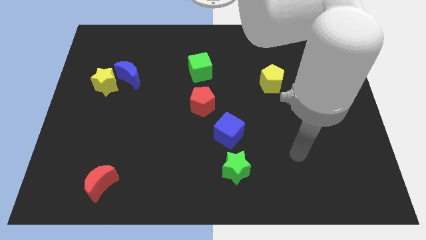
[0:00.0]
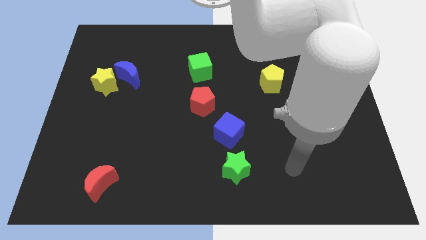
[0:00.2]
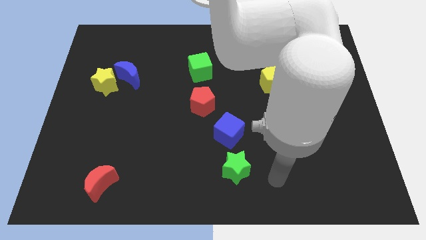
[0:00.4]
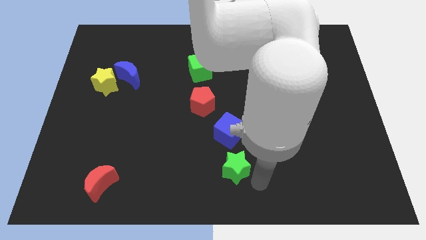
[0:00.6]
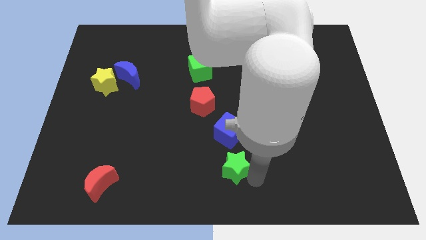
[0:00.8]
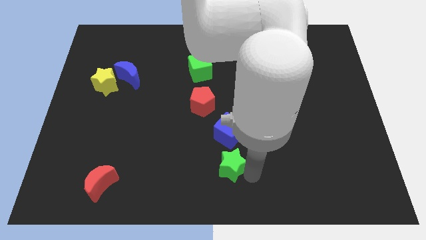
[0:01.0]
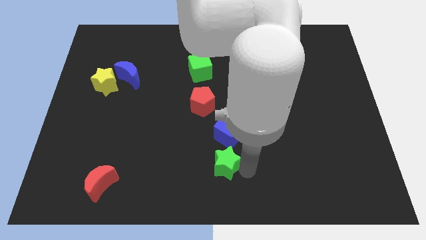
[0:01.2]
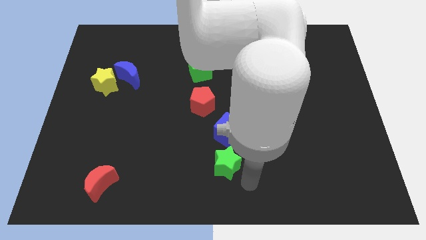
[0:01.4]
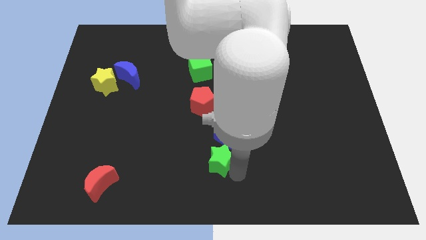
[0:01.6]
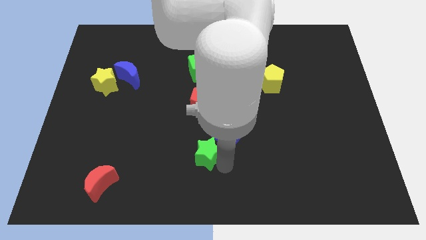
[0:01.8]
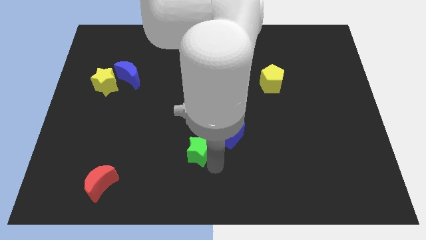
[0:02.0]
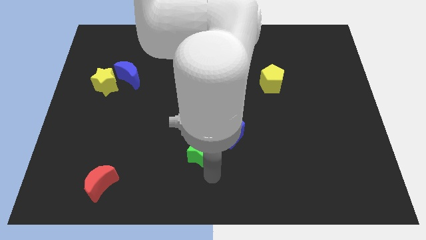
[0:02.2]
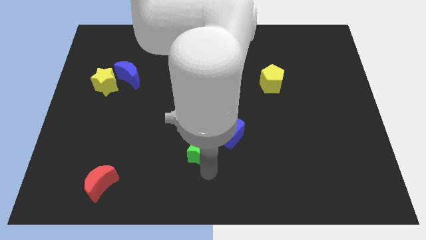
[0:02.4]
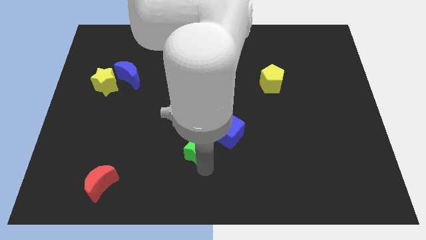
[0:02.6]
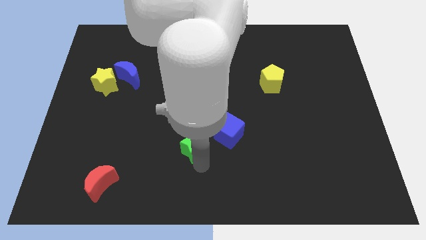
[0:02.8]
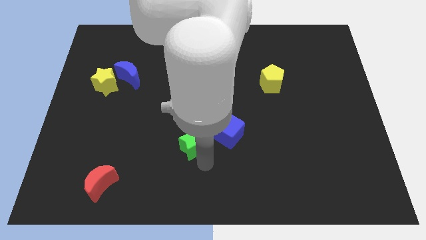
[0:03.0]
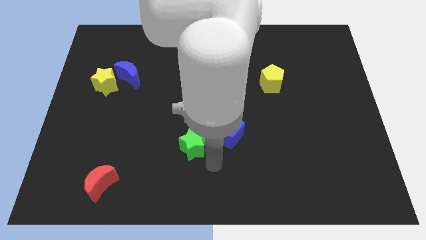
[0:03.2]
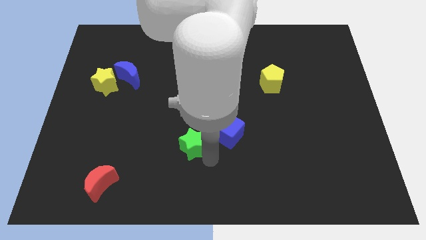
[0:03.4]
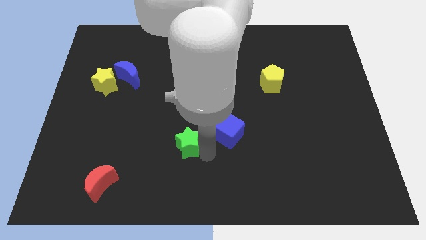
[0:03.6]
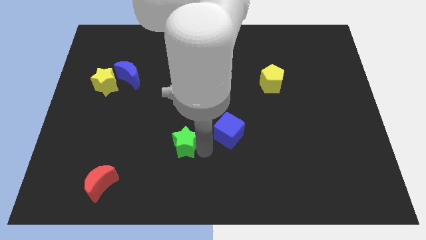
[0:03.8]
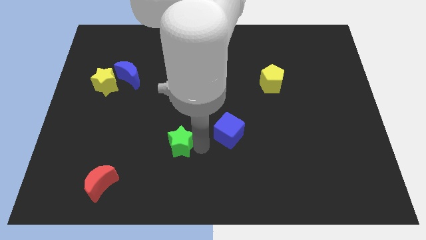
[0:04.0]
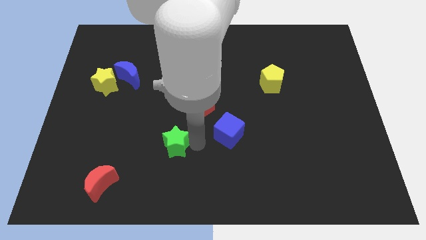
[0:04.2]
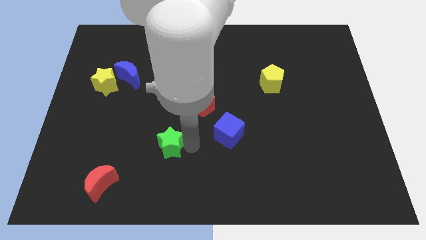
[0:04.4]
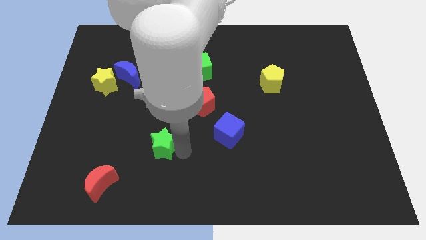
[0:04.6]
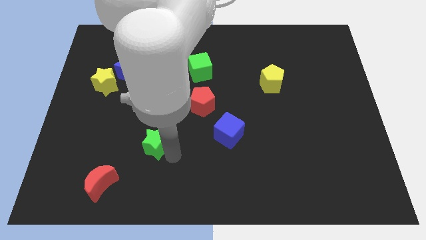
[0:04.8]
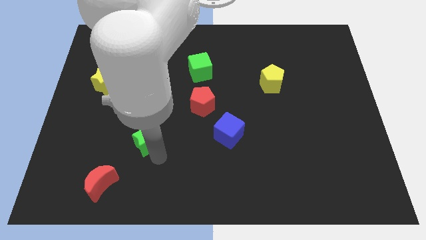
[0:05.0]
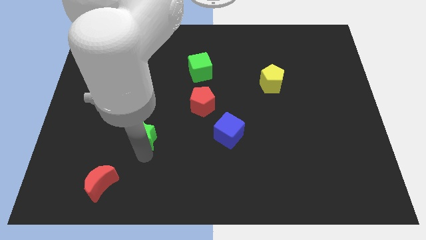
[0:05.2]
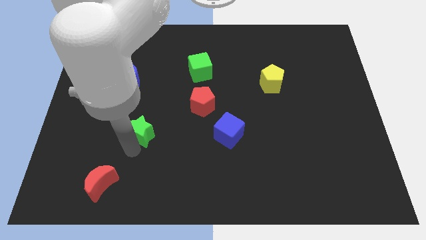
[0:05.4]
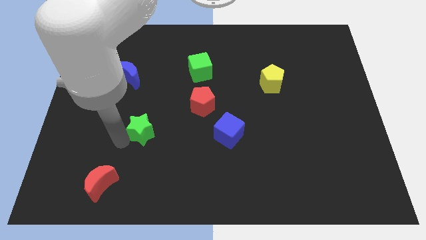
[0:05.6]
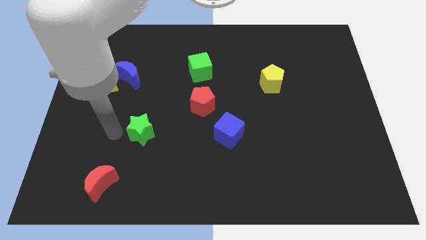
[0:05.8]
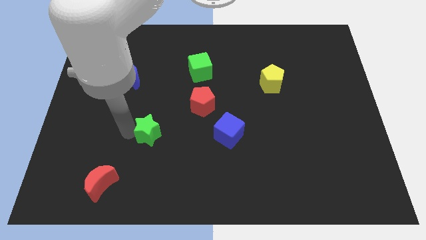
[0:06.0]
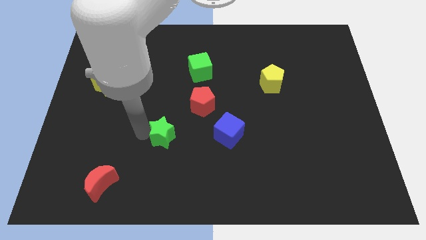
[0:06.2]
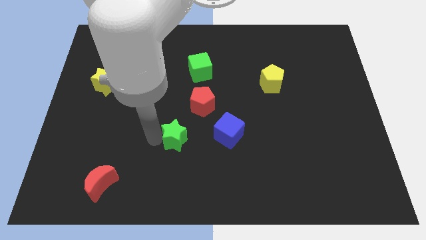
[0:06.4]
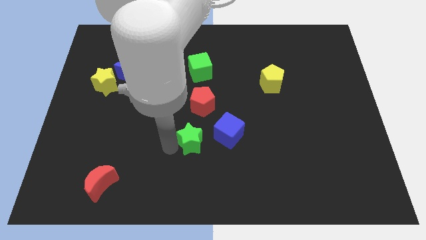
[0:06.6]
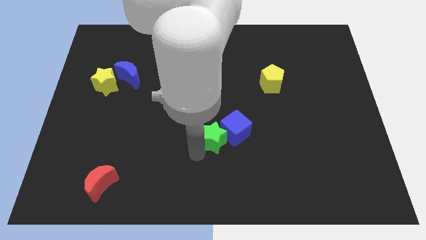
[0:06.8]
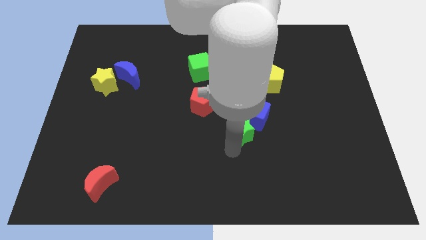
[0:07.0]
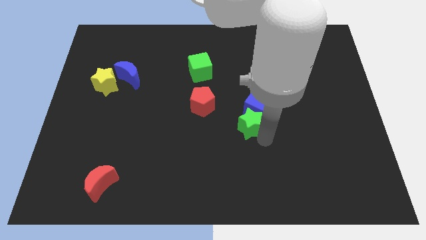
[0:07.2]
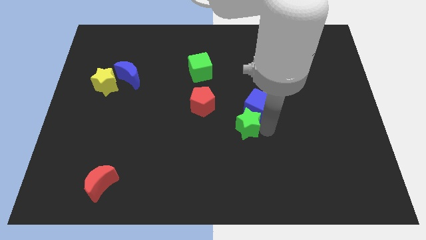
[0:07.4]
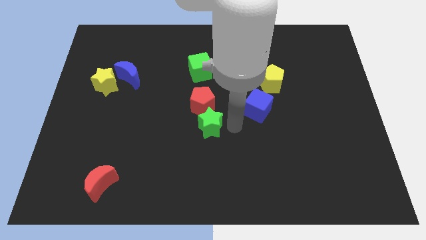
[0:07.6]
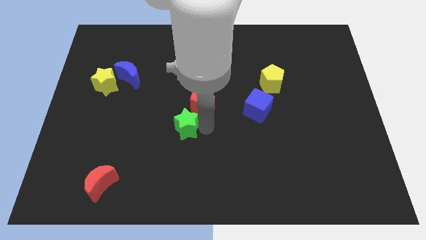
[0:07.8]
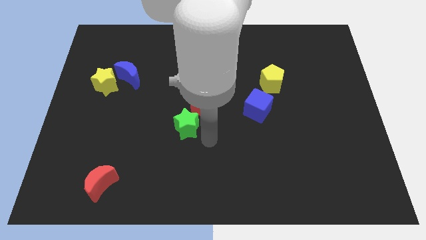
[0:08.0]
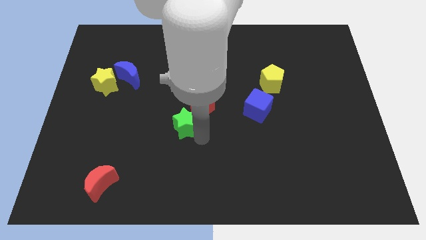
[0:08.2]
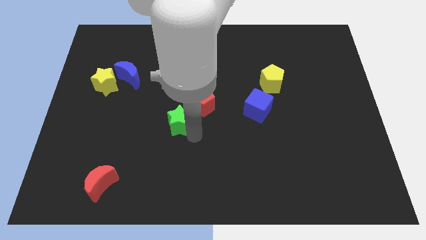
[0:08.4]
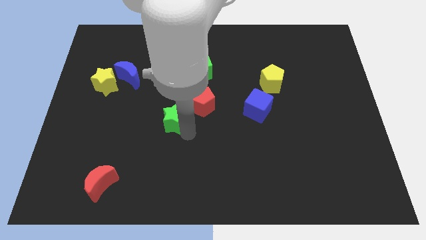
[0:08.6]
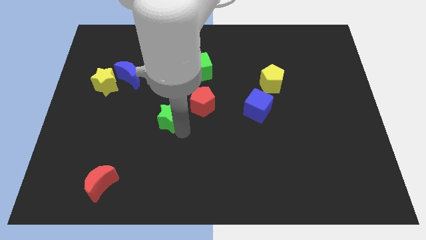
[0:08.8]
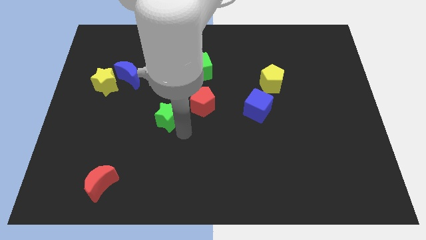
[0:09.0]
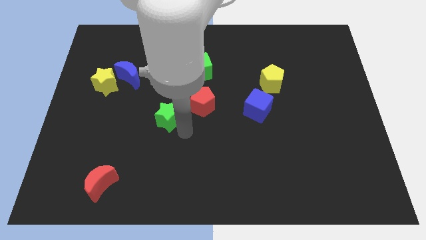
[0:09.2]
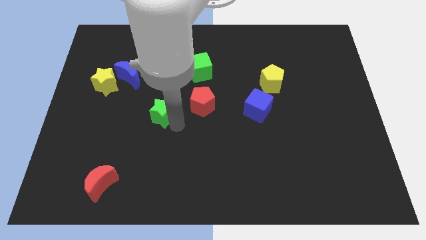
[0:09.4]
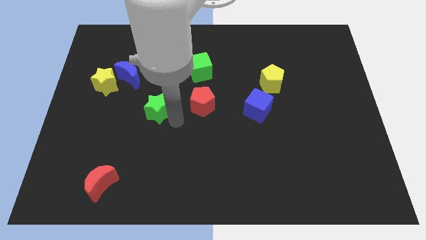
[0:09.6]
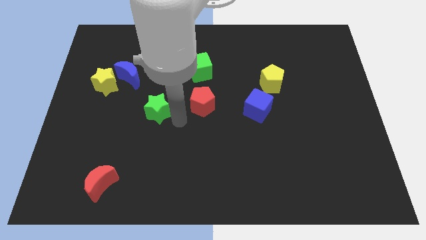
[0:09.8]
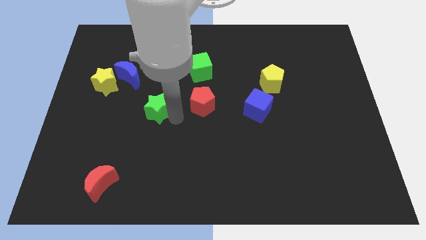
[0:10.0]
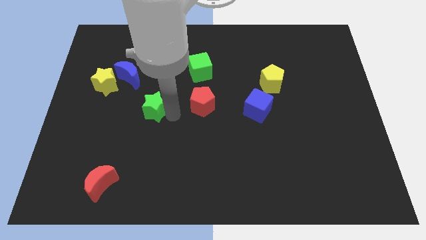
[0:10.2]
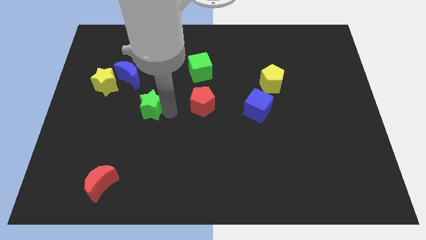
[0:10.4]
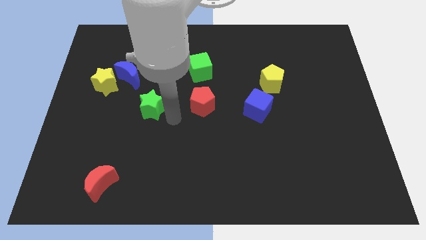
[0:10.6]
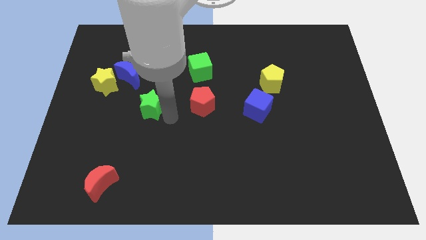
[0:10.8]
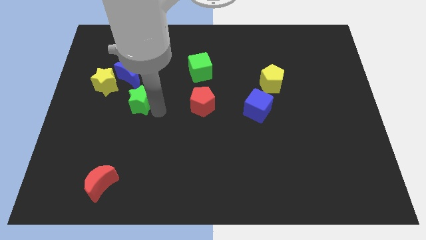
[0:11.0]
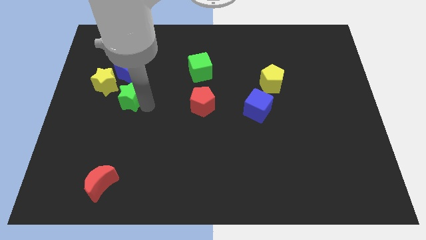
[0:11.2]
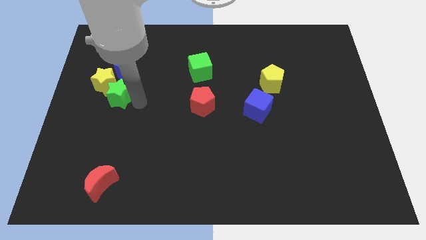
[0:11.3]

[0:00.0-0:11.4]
move the green star next to the yellow star

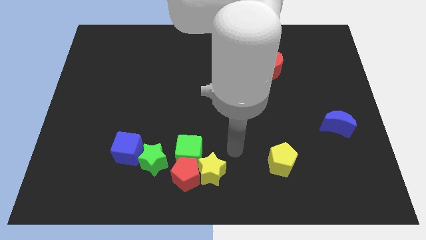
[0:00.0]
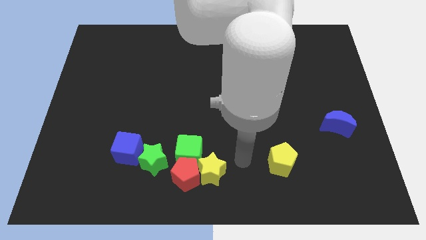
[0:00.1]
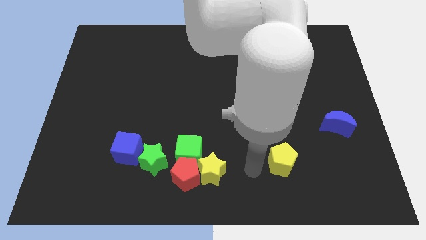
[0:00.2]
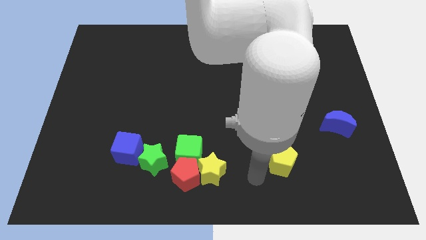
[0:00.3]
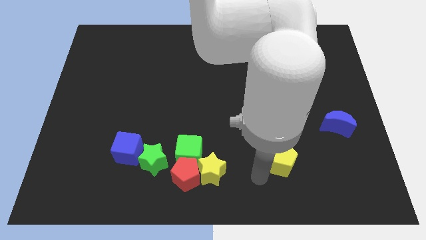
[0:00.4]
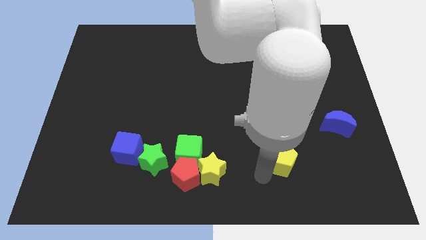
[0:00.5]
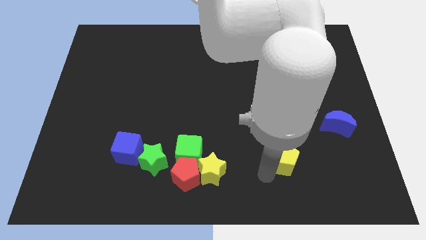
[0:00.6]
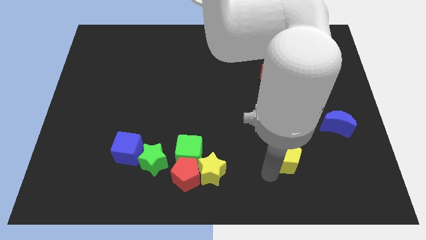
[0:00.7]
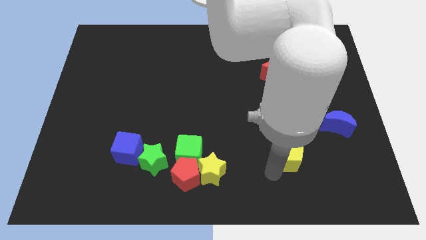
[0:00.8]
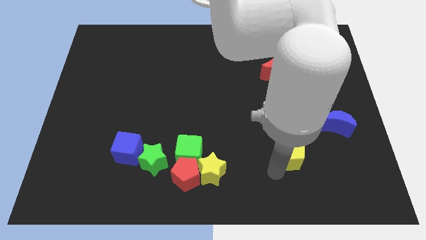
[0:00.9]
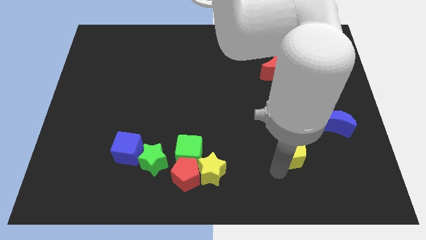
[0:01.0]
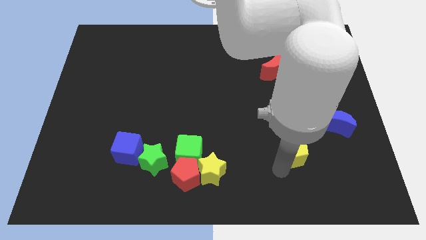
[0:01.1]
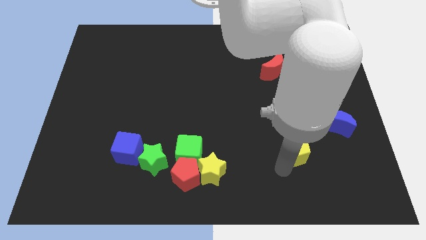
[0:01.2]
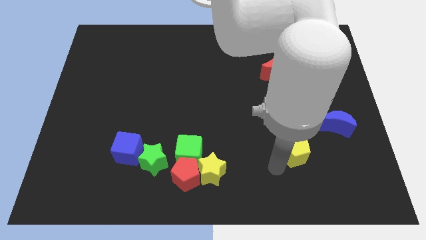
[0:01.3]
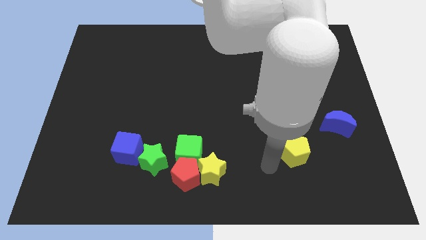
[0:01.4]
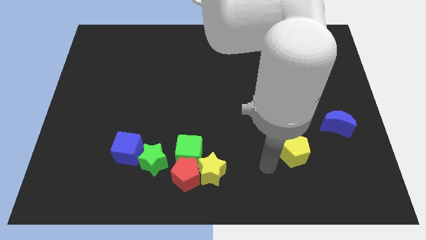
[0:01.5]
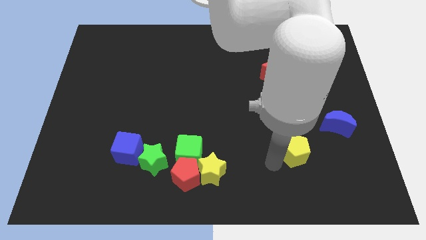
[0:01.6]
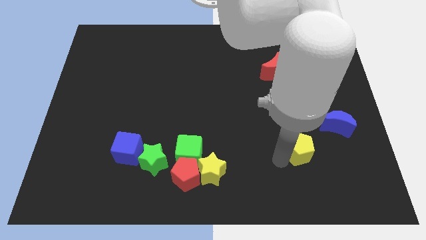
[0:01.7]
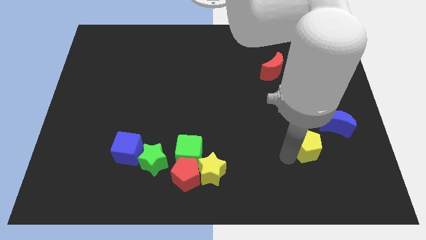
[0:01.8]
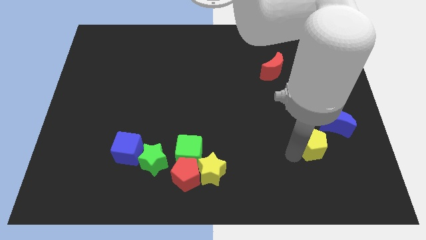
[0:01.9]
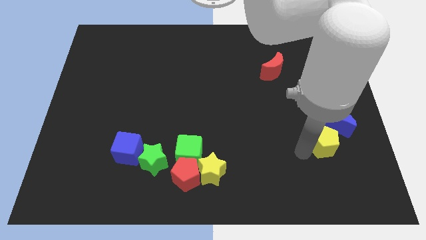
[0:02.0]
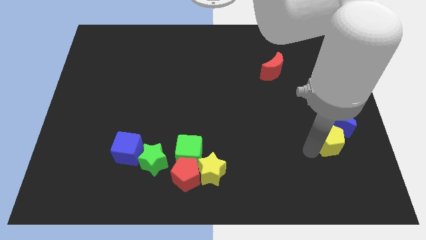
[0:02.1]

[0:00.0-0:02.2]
push the yellow pentagon close to the blue moon
